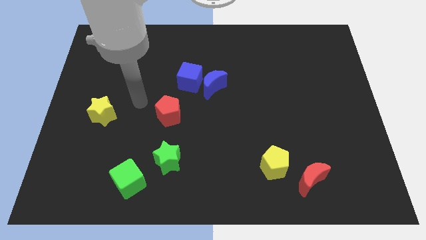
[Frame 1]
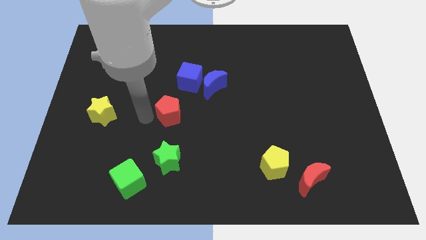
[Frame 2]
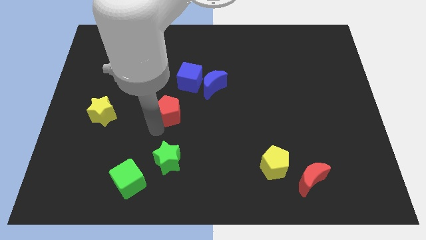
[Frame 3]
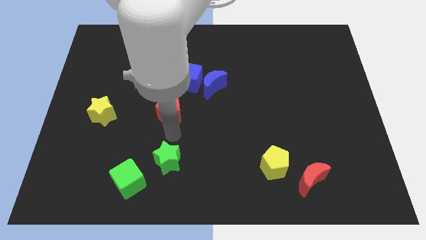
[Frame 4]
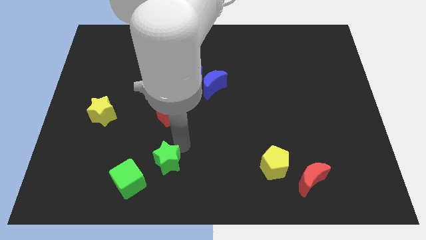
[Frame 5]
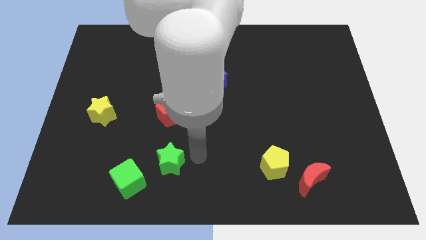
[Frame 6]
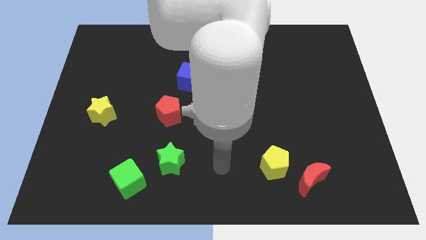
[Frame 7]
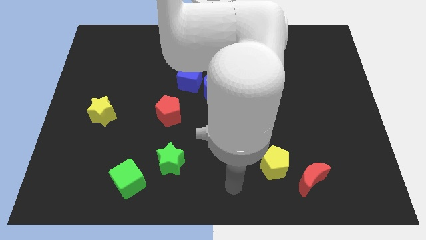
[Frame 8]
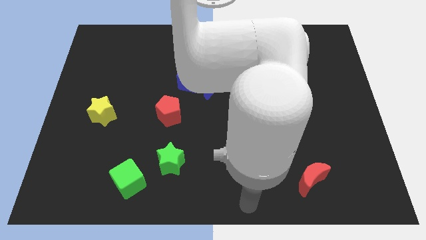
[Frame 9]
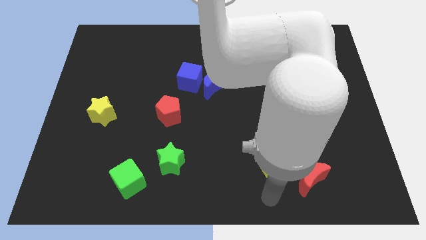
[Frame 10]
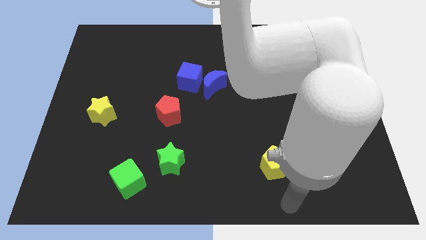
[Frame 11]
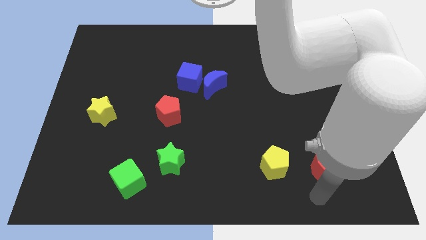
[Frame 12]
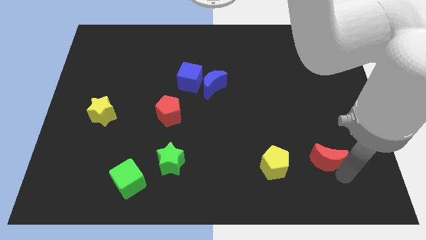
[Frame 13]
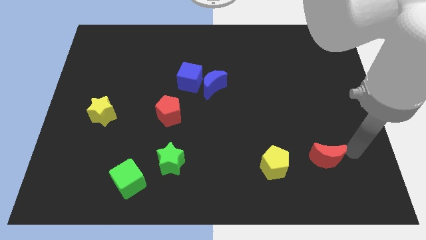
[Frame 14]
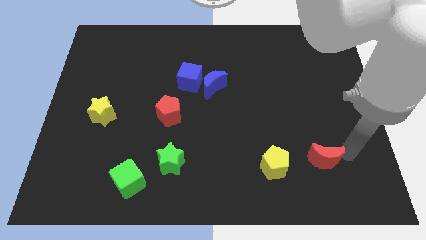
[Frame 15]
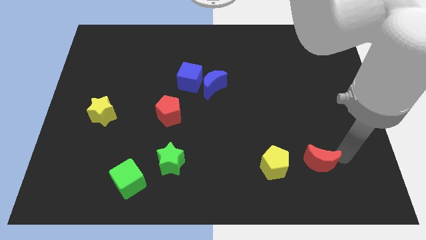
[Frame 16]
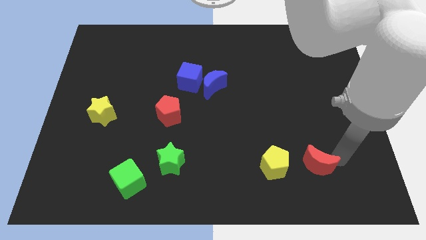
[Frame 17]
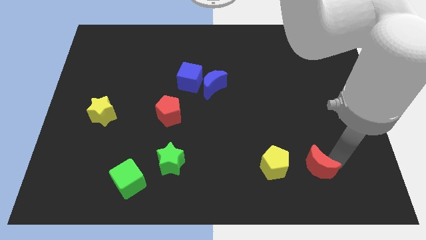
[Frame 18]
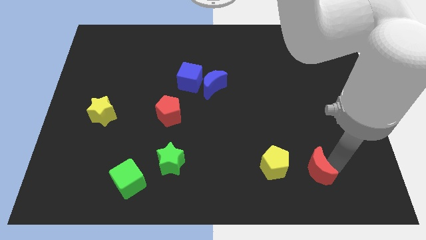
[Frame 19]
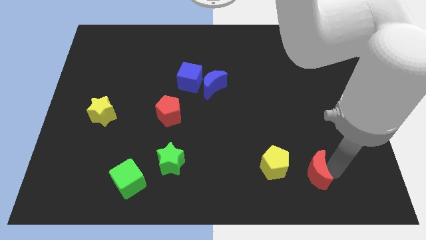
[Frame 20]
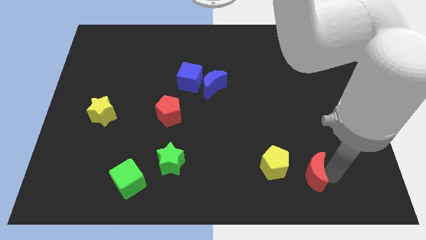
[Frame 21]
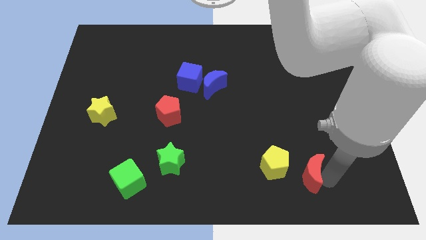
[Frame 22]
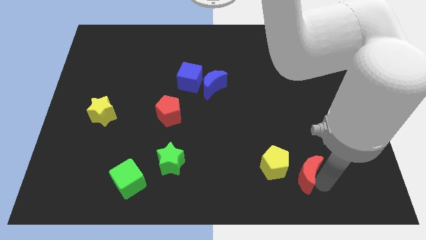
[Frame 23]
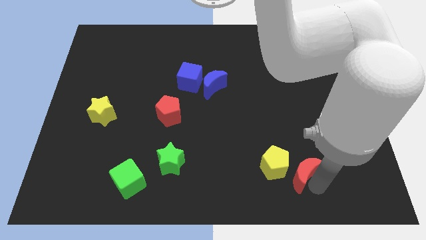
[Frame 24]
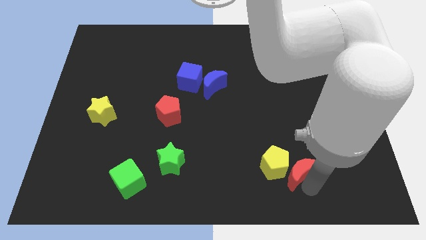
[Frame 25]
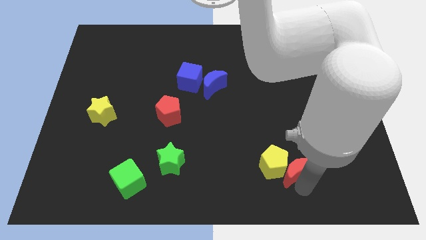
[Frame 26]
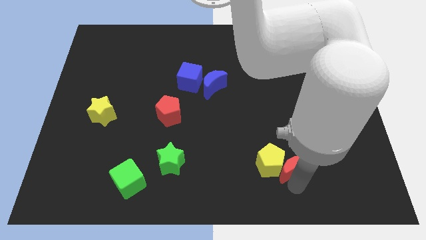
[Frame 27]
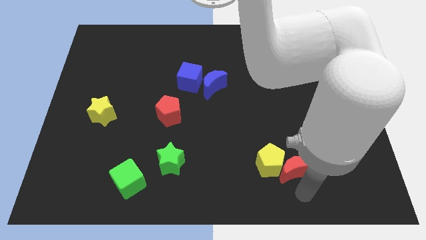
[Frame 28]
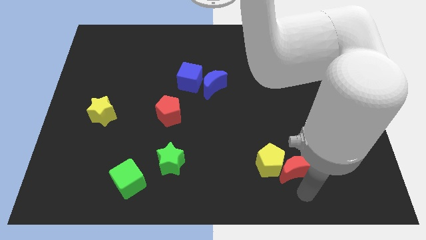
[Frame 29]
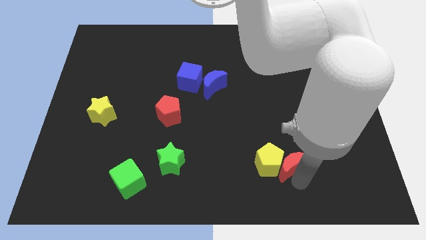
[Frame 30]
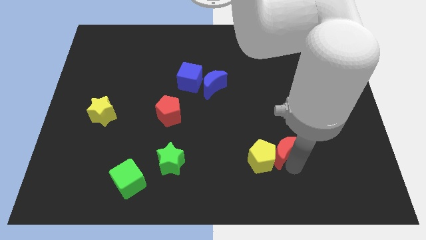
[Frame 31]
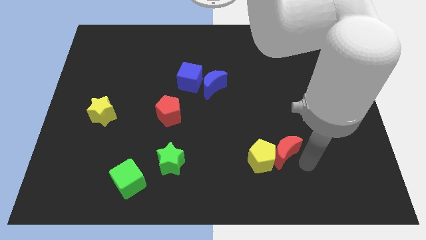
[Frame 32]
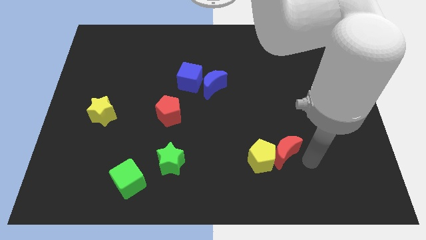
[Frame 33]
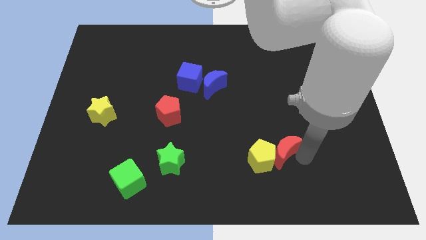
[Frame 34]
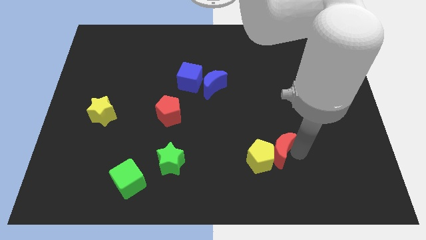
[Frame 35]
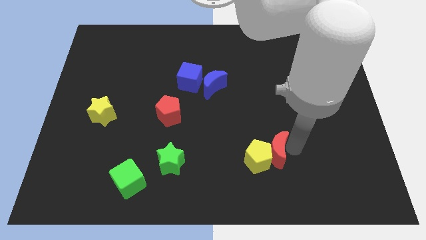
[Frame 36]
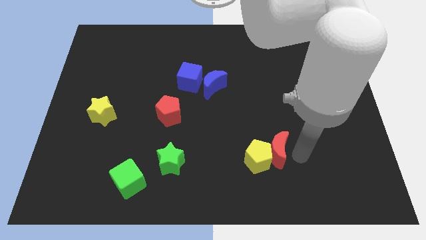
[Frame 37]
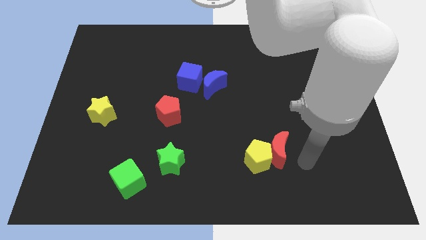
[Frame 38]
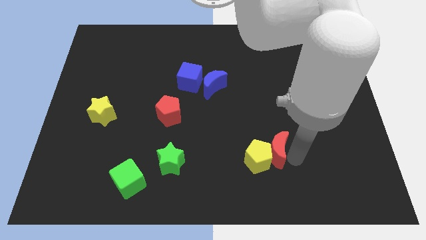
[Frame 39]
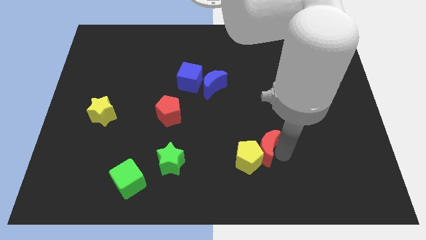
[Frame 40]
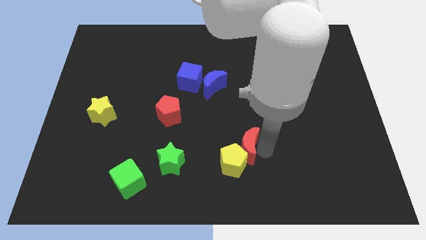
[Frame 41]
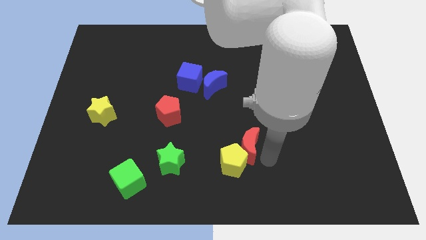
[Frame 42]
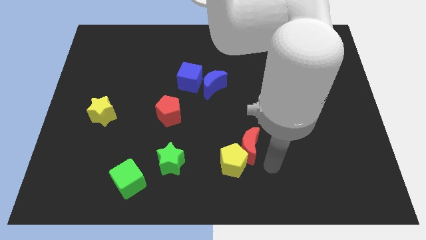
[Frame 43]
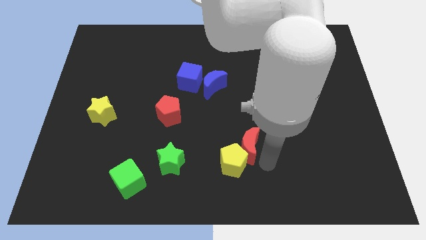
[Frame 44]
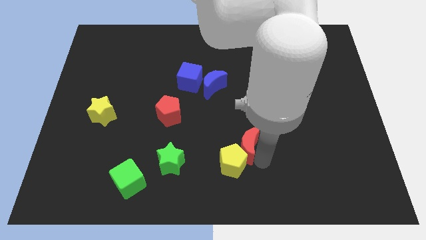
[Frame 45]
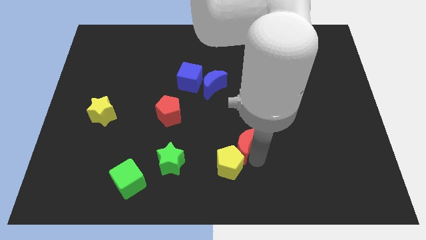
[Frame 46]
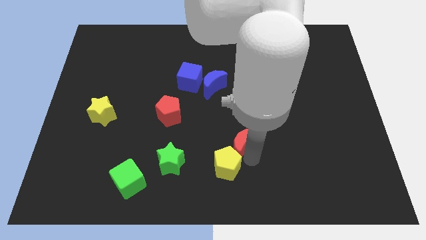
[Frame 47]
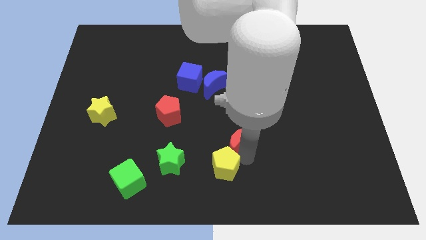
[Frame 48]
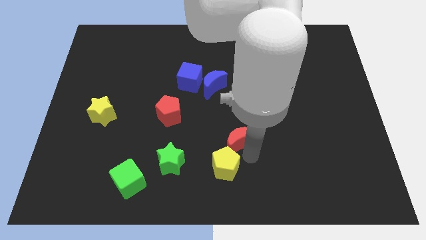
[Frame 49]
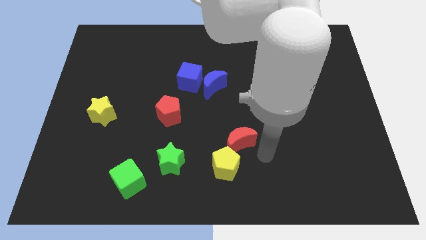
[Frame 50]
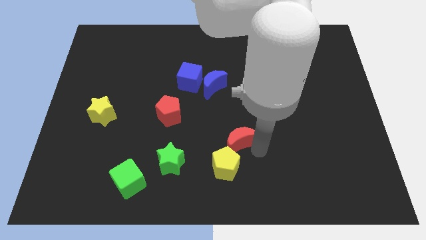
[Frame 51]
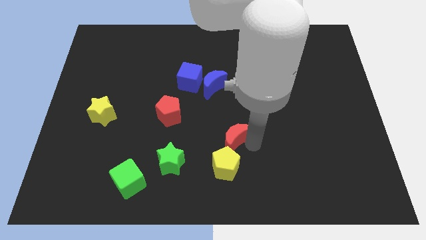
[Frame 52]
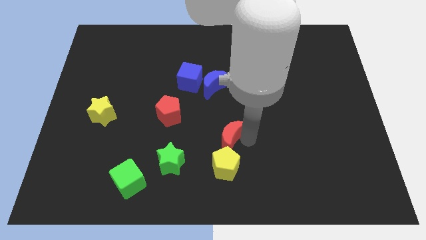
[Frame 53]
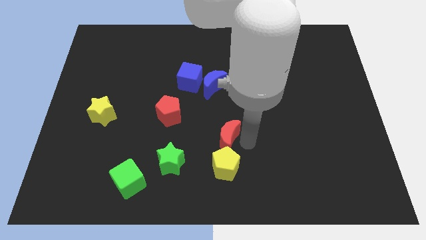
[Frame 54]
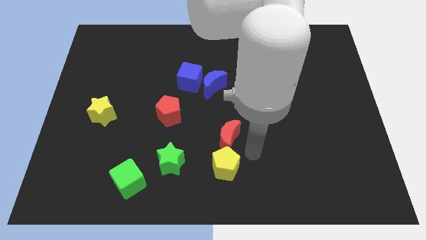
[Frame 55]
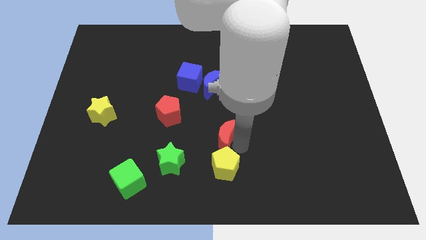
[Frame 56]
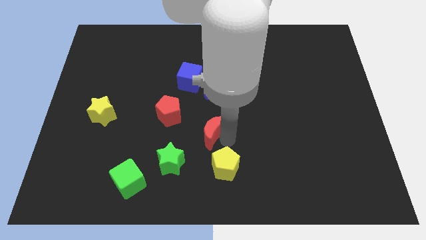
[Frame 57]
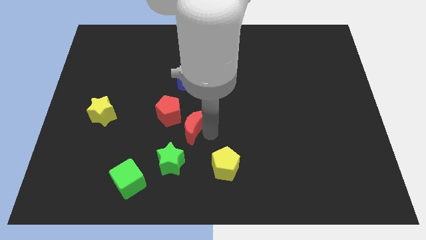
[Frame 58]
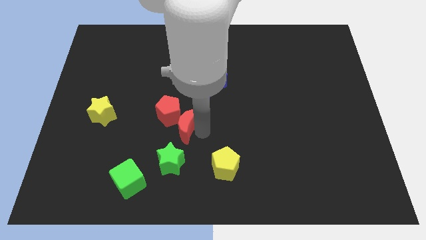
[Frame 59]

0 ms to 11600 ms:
move the red moon to the red pentagon

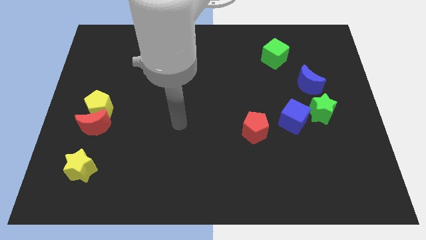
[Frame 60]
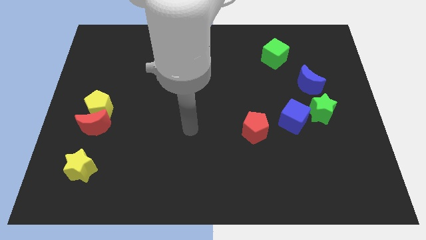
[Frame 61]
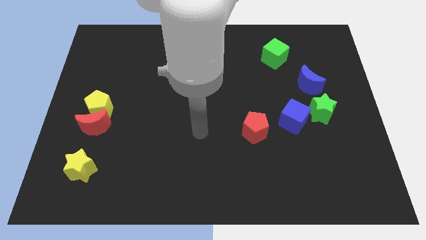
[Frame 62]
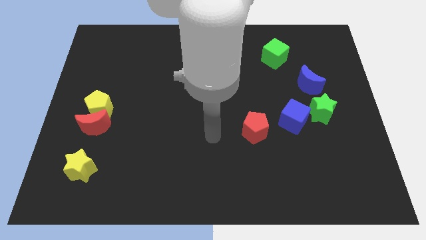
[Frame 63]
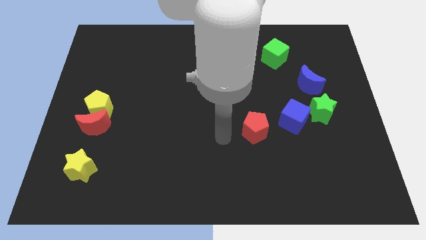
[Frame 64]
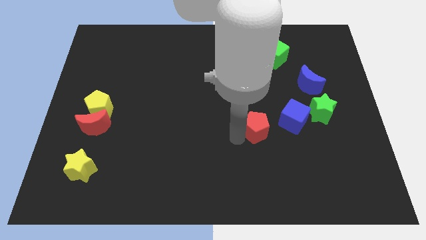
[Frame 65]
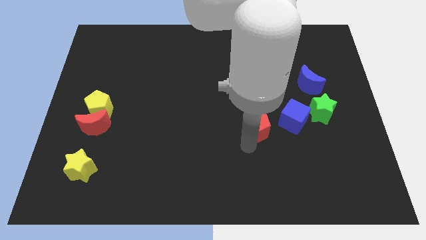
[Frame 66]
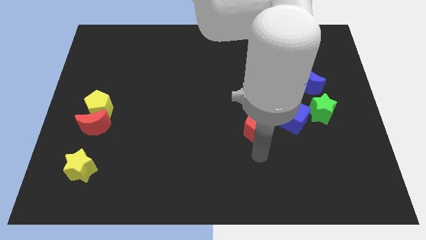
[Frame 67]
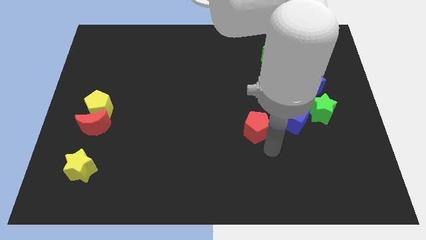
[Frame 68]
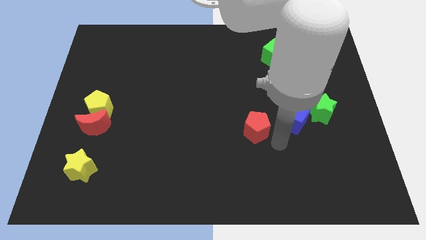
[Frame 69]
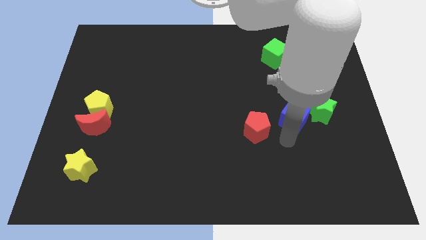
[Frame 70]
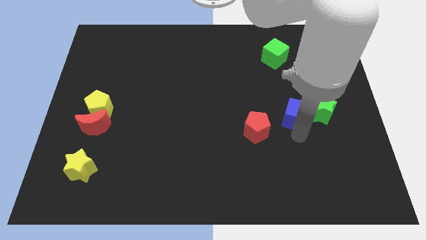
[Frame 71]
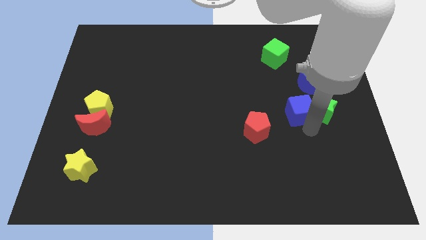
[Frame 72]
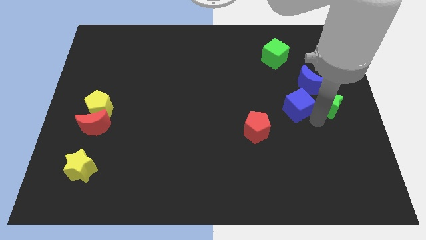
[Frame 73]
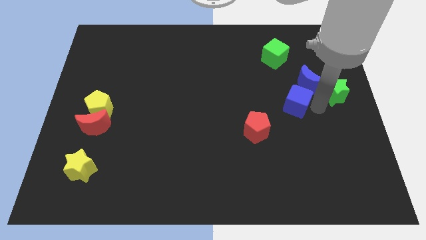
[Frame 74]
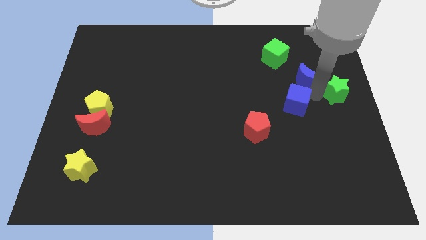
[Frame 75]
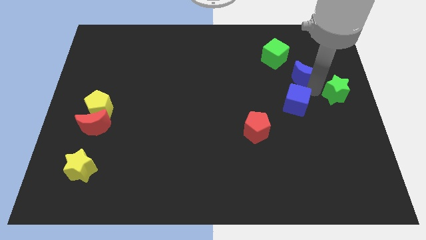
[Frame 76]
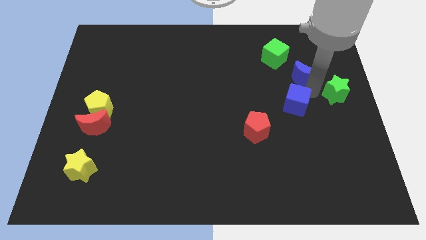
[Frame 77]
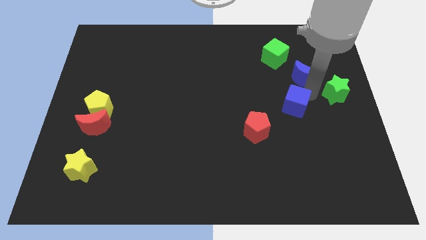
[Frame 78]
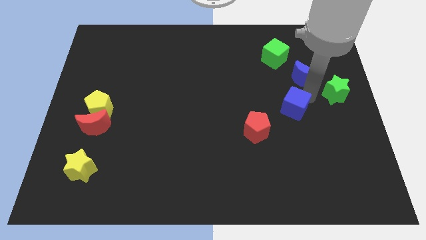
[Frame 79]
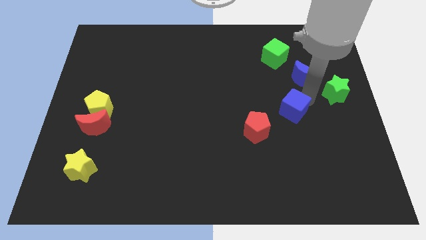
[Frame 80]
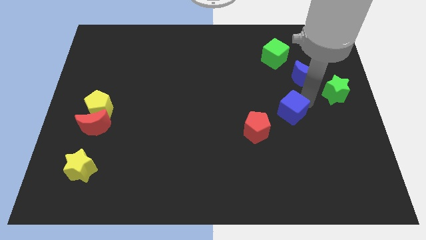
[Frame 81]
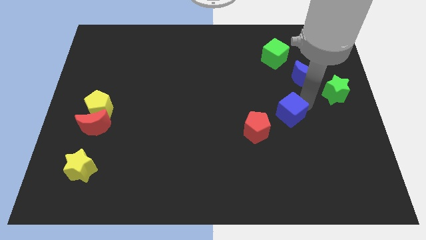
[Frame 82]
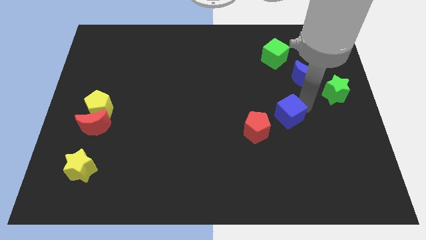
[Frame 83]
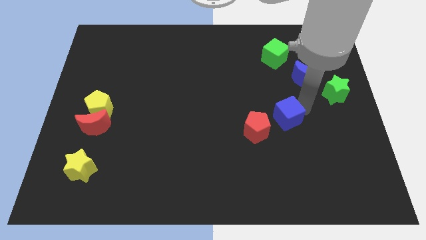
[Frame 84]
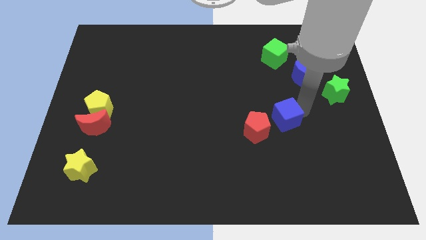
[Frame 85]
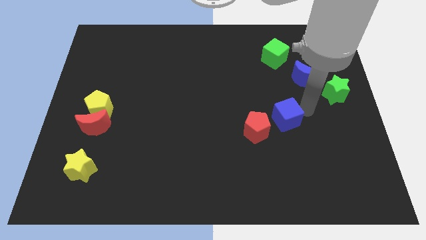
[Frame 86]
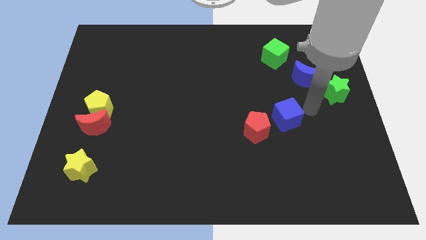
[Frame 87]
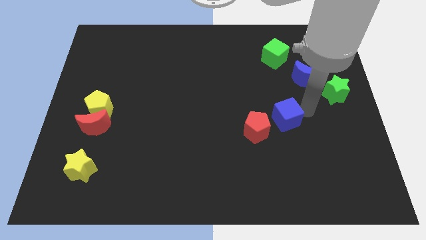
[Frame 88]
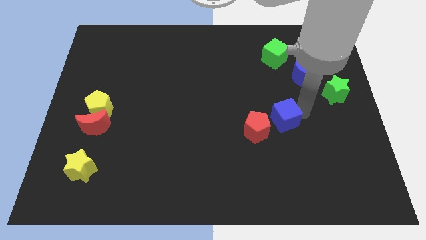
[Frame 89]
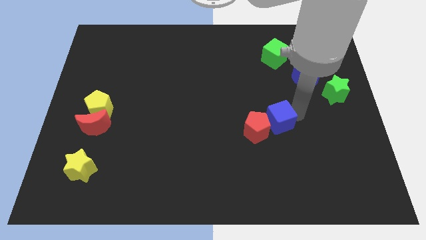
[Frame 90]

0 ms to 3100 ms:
push the blue cube next to the red pentagon
